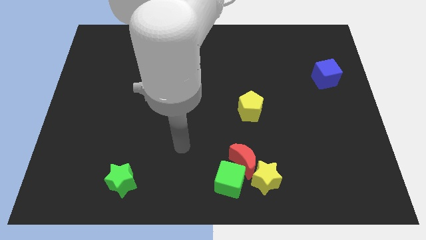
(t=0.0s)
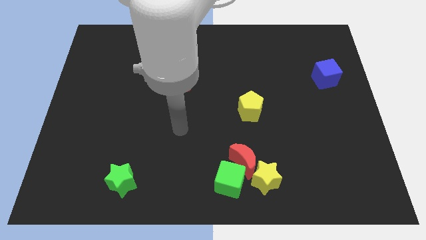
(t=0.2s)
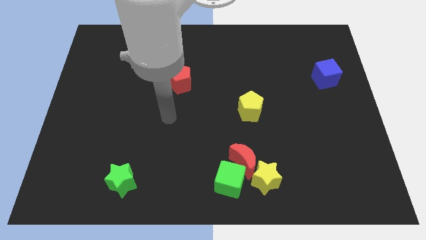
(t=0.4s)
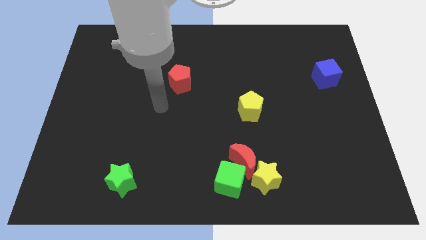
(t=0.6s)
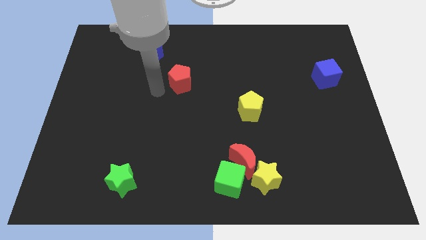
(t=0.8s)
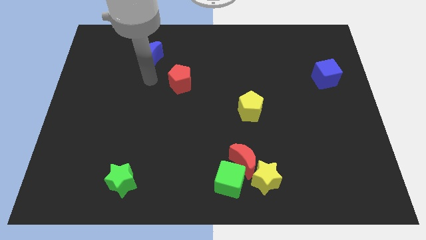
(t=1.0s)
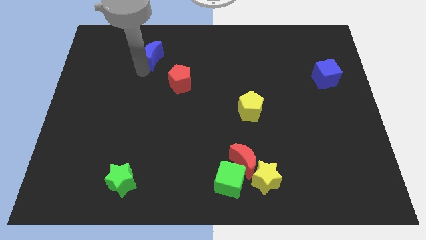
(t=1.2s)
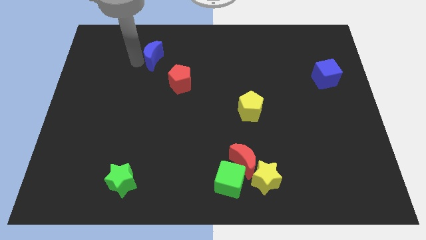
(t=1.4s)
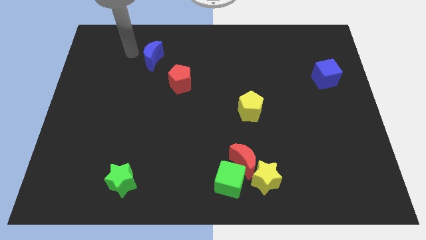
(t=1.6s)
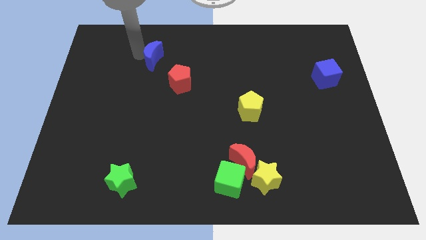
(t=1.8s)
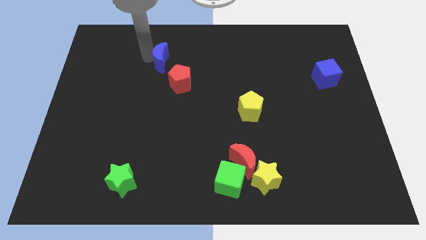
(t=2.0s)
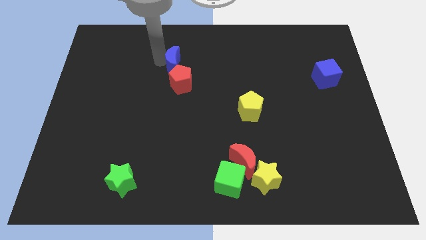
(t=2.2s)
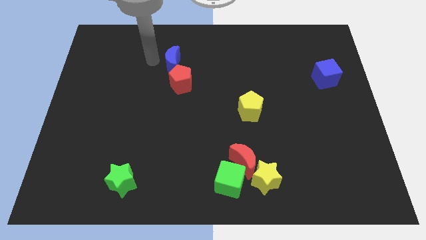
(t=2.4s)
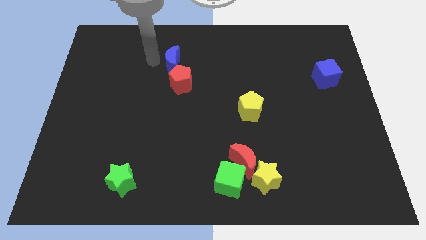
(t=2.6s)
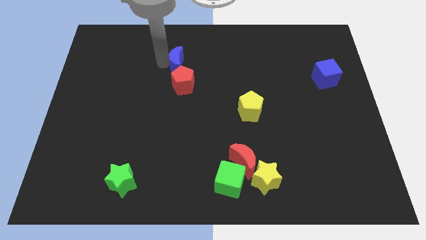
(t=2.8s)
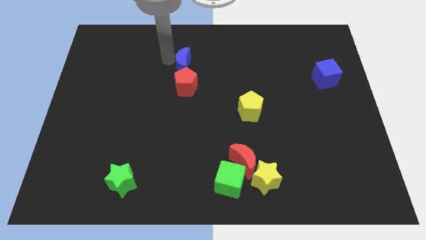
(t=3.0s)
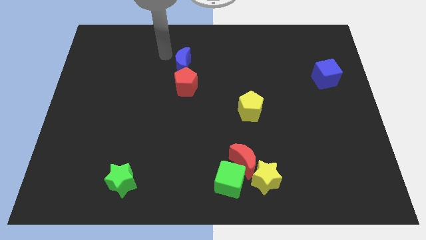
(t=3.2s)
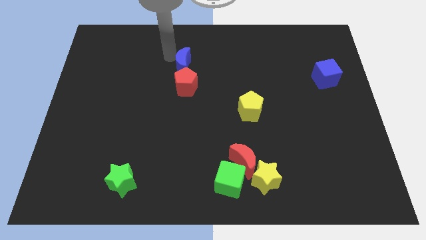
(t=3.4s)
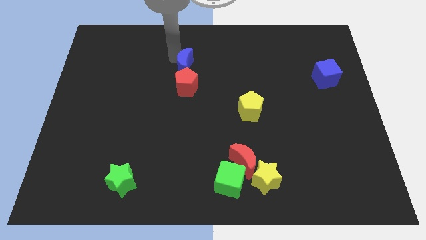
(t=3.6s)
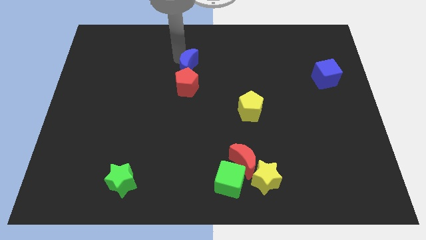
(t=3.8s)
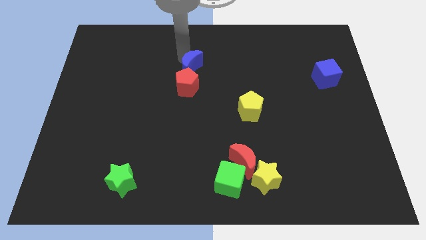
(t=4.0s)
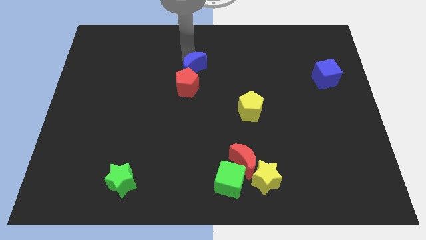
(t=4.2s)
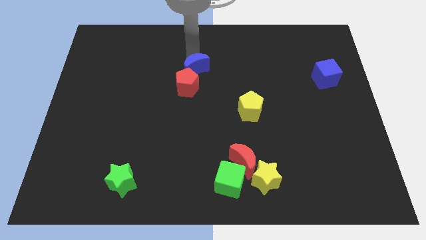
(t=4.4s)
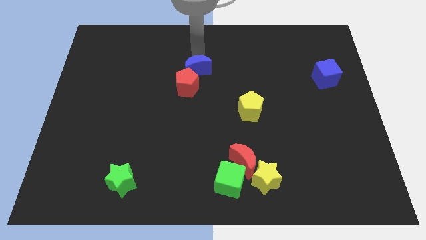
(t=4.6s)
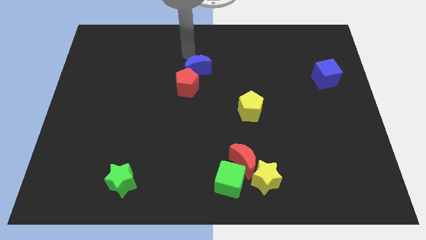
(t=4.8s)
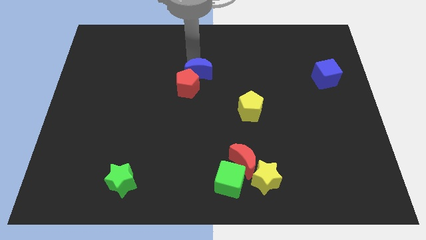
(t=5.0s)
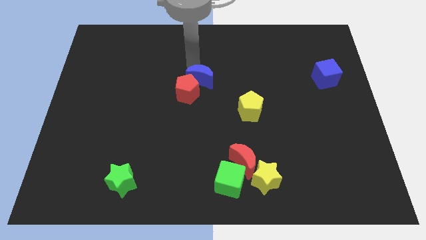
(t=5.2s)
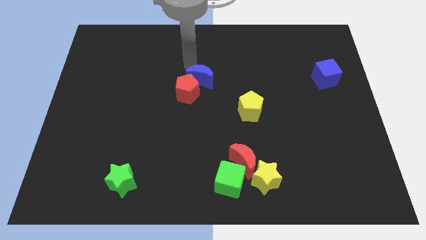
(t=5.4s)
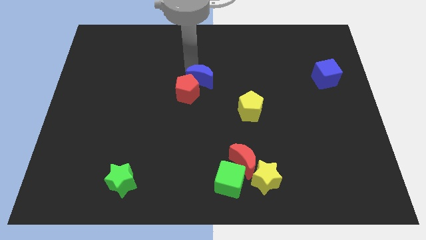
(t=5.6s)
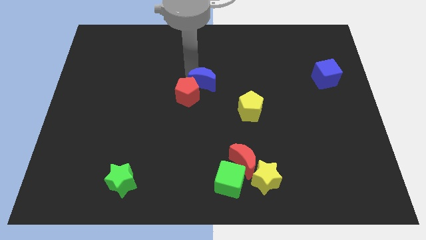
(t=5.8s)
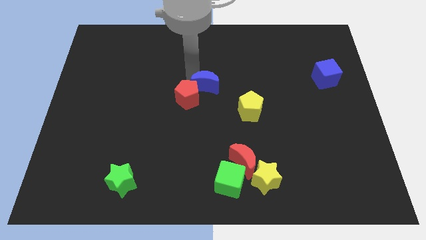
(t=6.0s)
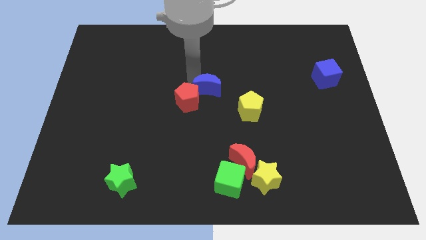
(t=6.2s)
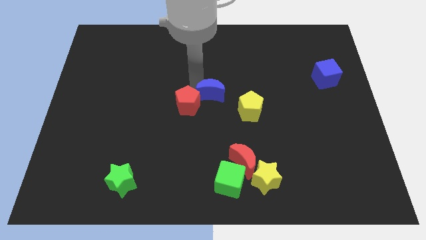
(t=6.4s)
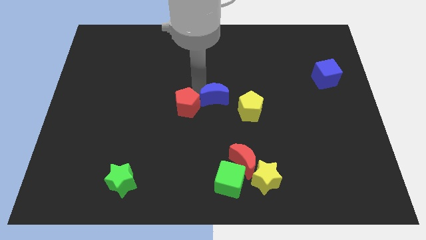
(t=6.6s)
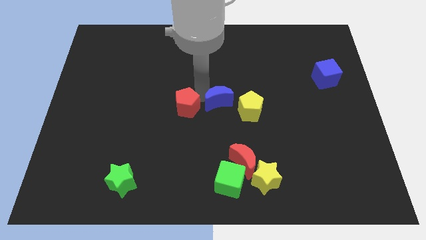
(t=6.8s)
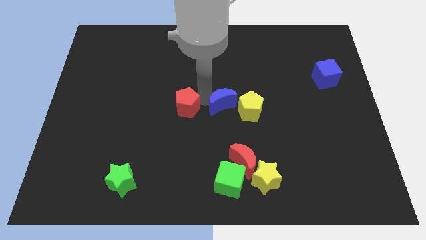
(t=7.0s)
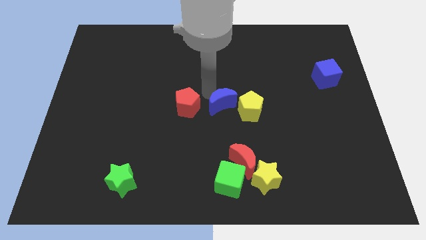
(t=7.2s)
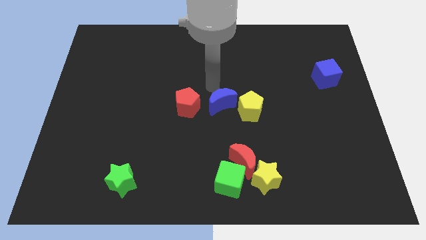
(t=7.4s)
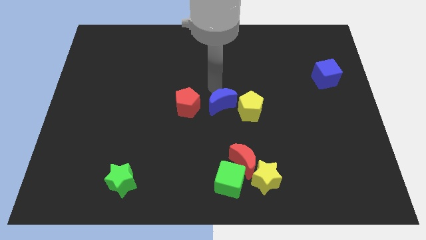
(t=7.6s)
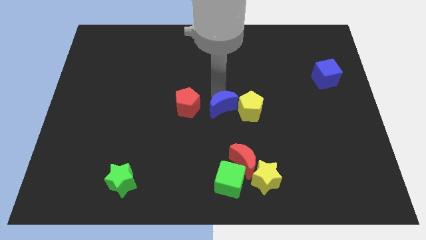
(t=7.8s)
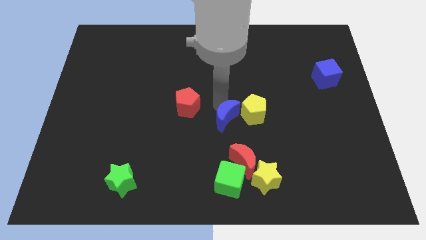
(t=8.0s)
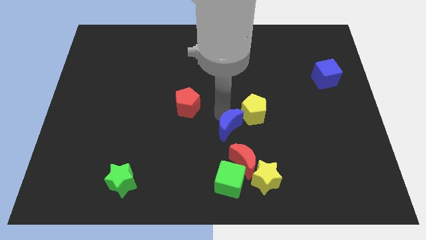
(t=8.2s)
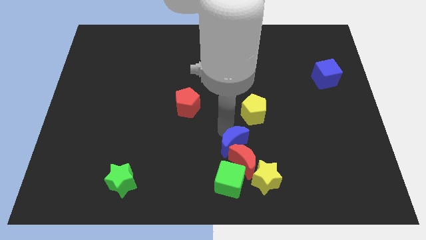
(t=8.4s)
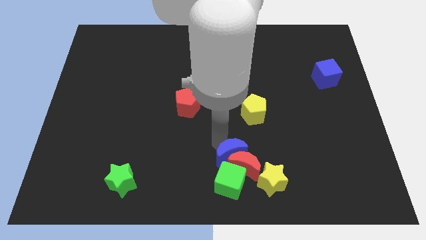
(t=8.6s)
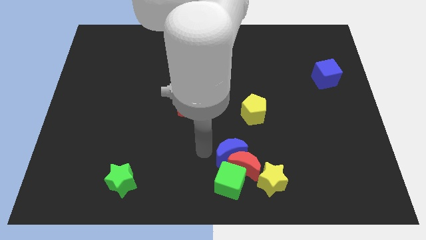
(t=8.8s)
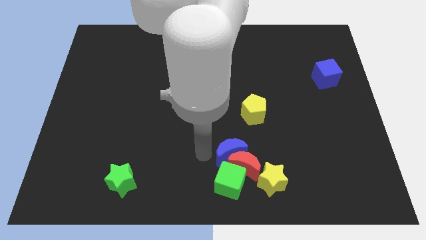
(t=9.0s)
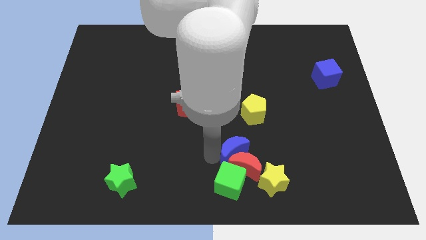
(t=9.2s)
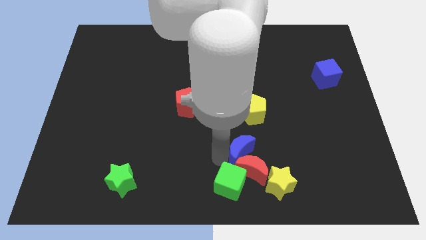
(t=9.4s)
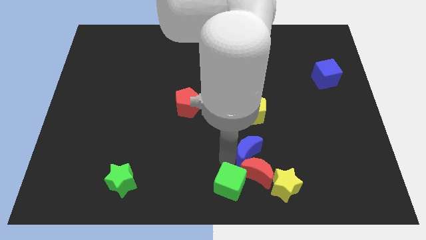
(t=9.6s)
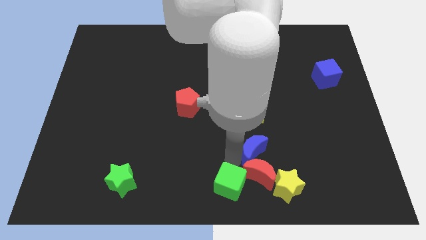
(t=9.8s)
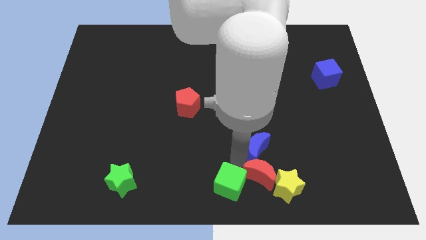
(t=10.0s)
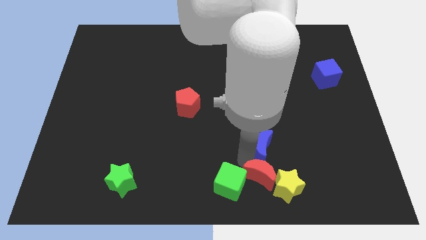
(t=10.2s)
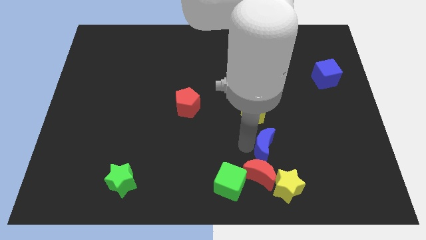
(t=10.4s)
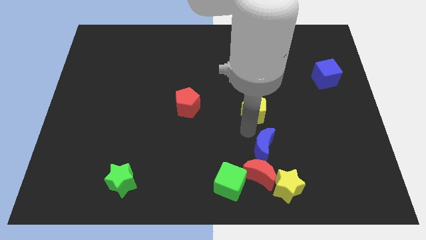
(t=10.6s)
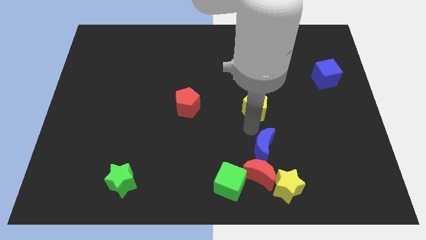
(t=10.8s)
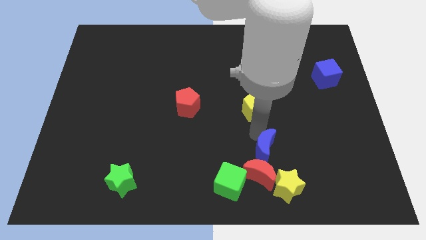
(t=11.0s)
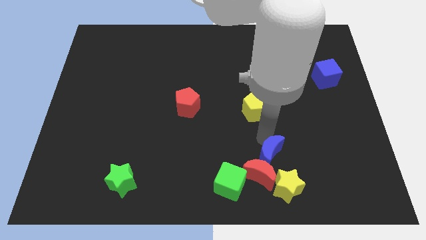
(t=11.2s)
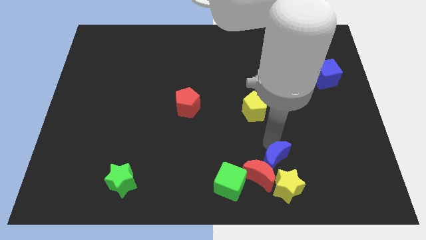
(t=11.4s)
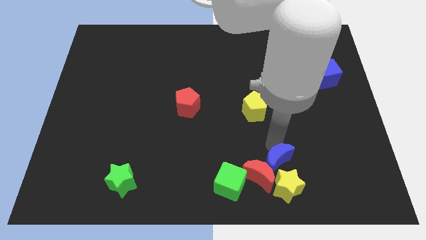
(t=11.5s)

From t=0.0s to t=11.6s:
slide the blue moon close to the yellow star

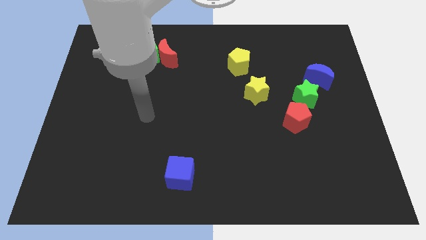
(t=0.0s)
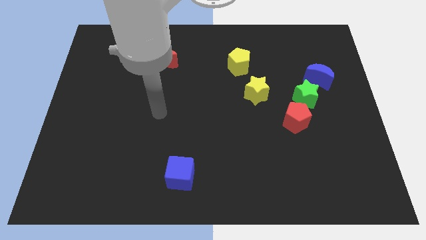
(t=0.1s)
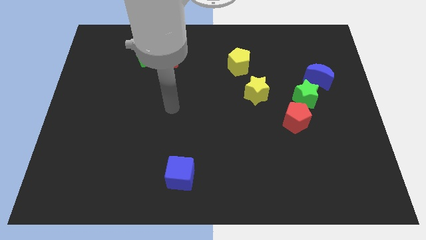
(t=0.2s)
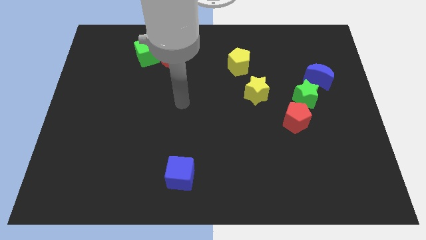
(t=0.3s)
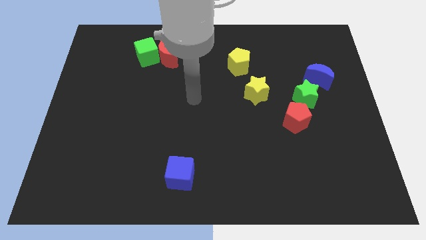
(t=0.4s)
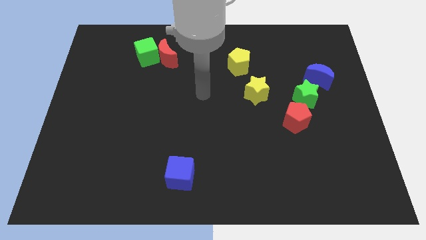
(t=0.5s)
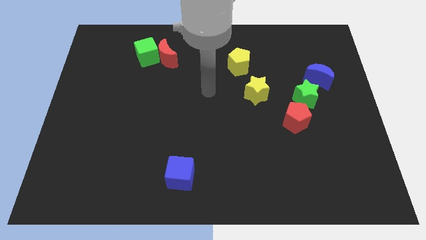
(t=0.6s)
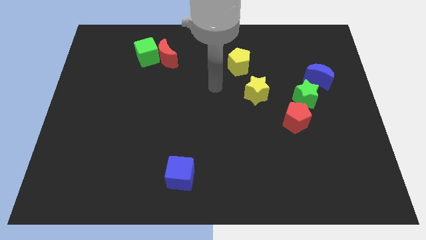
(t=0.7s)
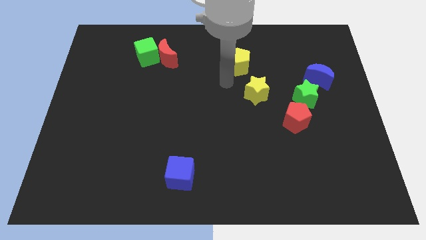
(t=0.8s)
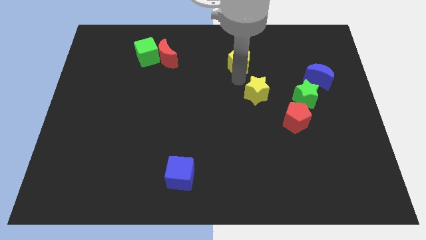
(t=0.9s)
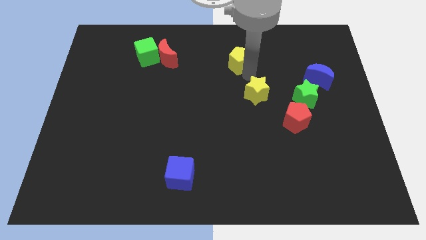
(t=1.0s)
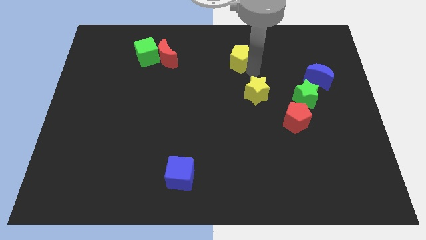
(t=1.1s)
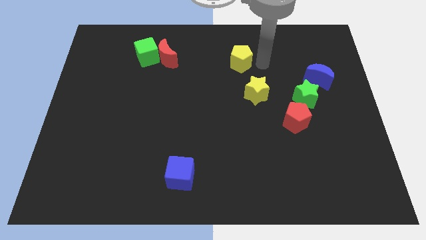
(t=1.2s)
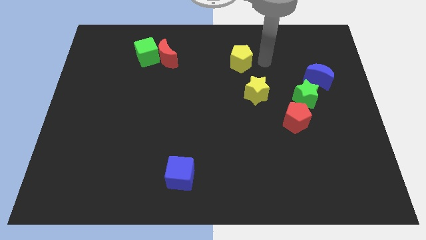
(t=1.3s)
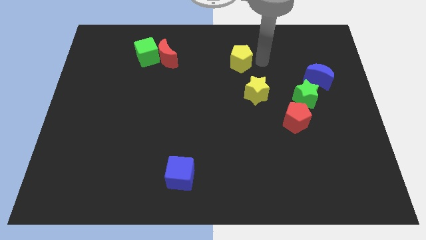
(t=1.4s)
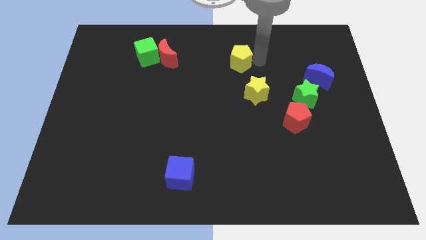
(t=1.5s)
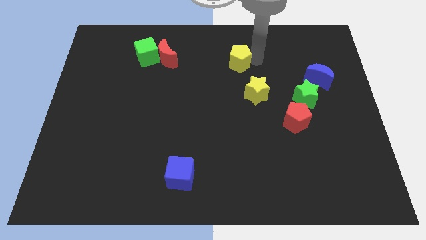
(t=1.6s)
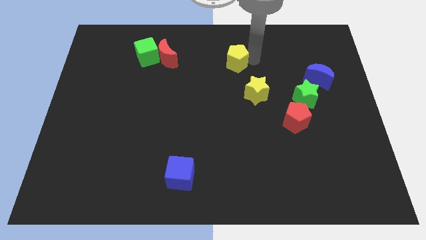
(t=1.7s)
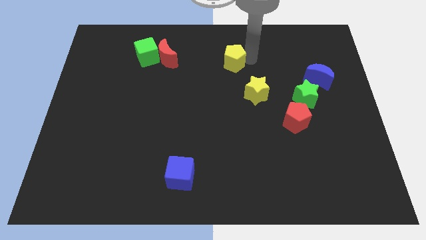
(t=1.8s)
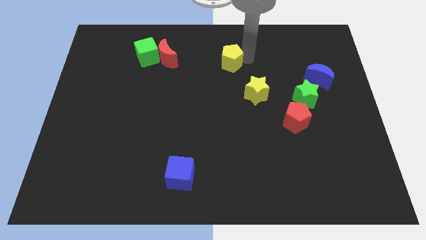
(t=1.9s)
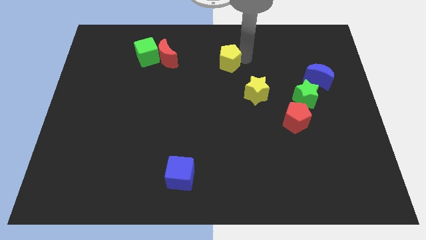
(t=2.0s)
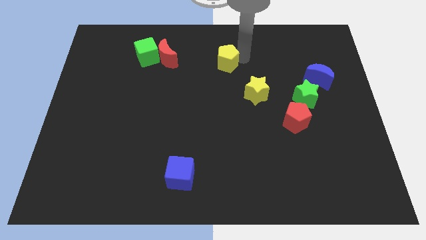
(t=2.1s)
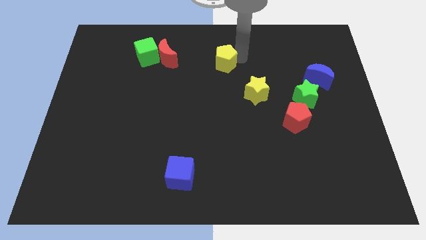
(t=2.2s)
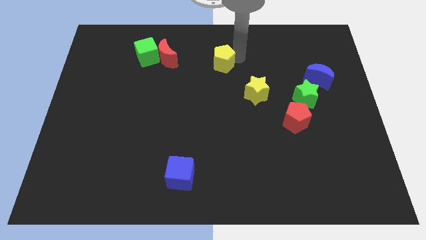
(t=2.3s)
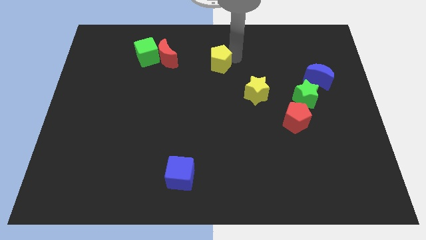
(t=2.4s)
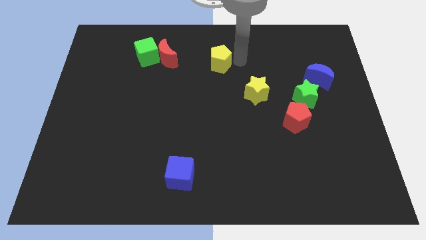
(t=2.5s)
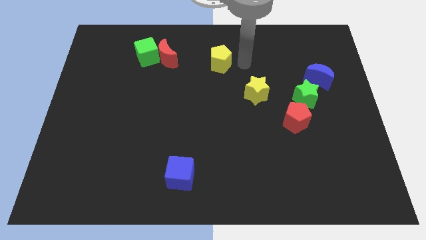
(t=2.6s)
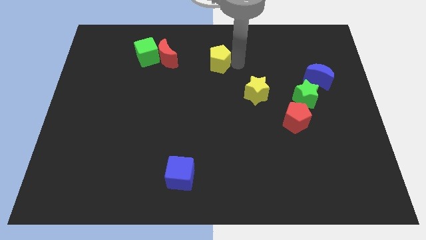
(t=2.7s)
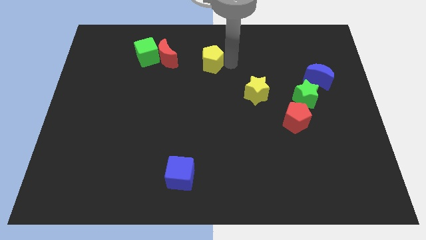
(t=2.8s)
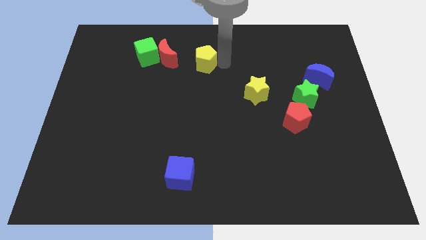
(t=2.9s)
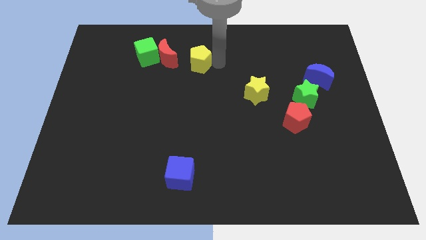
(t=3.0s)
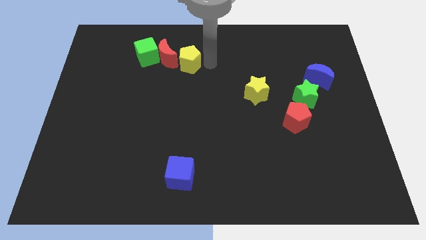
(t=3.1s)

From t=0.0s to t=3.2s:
push the yellow pentagon next to the red moon
